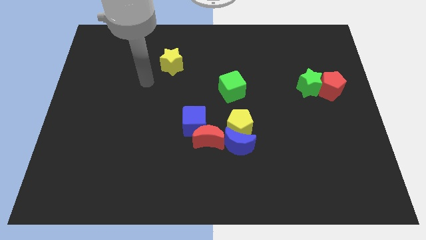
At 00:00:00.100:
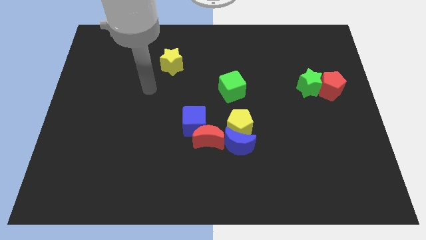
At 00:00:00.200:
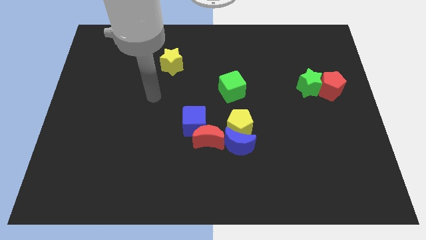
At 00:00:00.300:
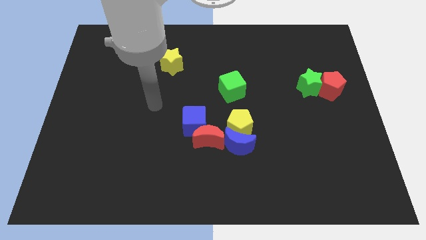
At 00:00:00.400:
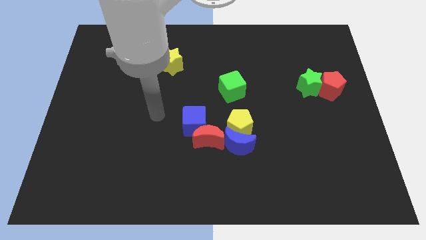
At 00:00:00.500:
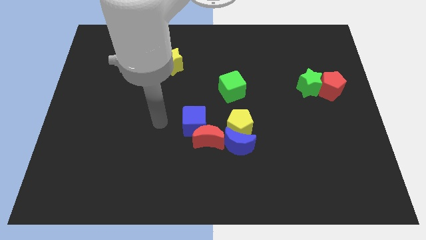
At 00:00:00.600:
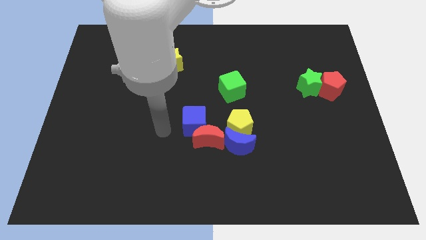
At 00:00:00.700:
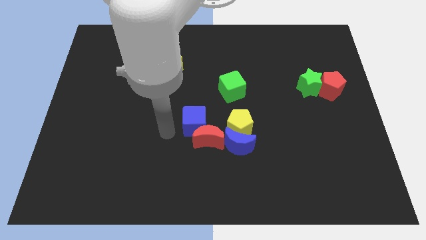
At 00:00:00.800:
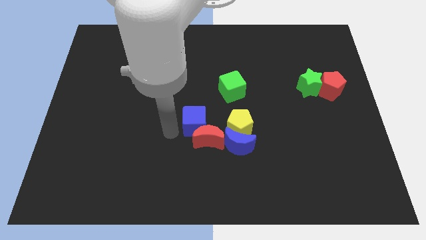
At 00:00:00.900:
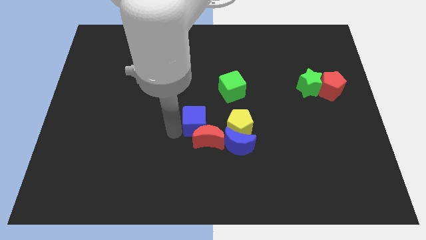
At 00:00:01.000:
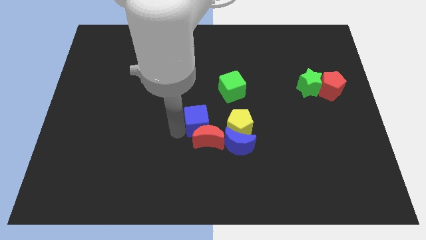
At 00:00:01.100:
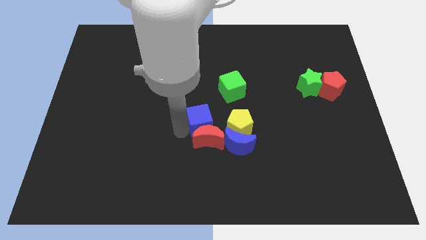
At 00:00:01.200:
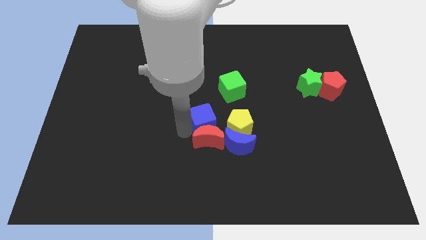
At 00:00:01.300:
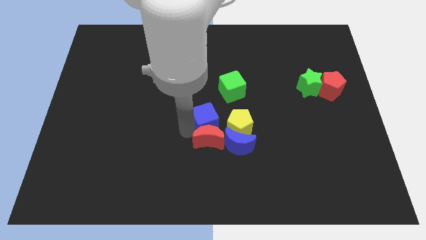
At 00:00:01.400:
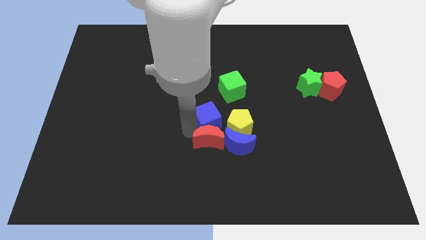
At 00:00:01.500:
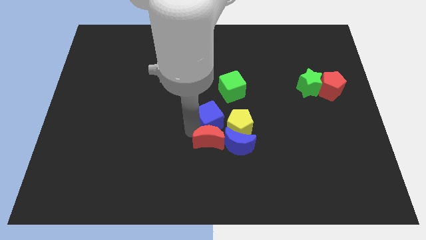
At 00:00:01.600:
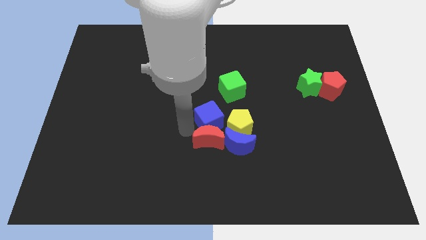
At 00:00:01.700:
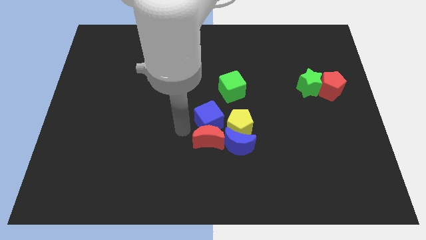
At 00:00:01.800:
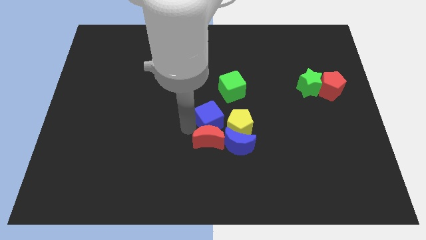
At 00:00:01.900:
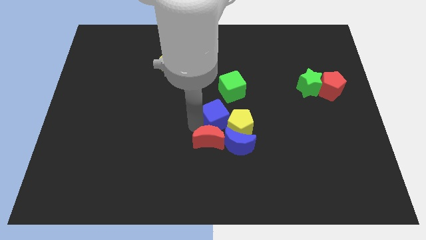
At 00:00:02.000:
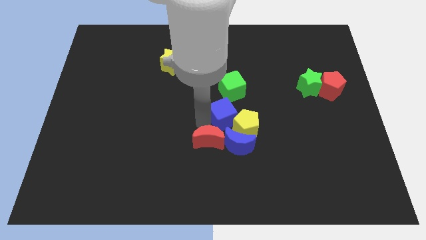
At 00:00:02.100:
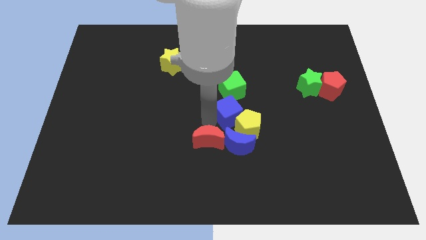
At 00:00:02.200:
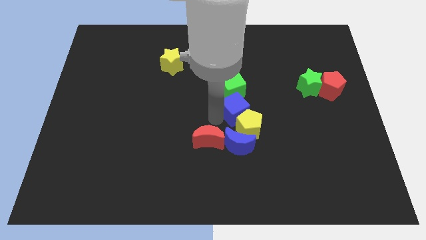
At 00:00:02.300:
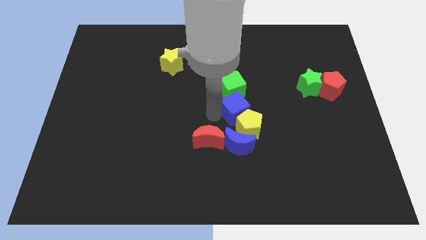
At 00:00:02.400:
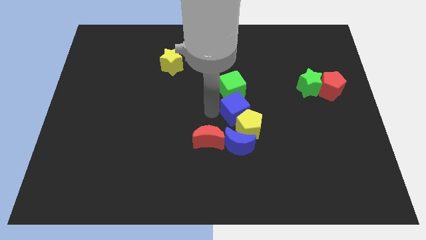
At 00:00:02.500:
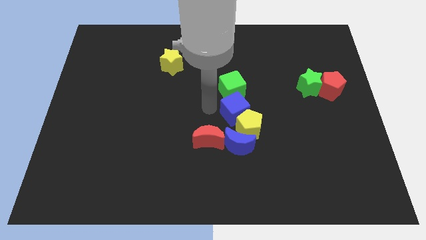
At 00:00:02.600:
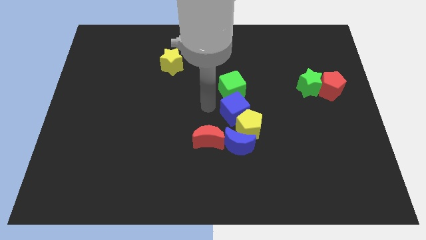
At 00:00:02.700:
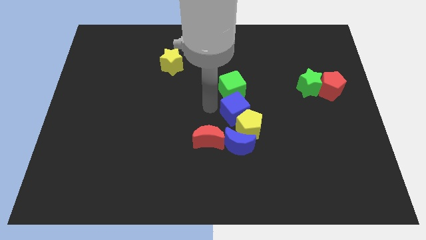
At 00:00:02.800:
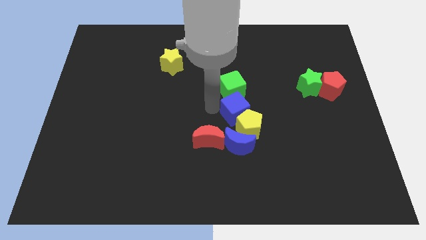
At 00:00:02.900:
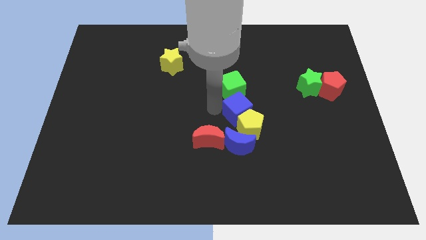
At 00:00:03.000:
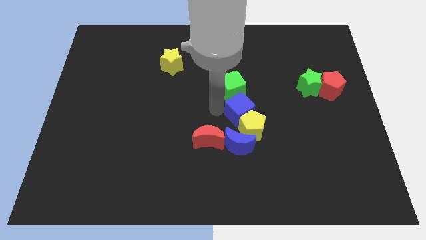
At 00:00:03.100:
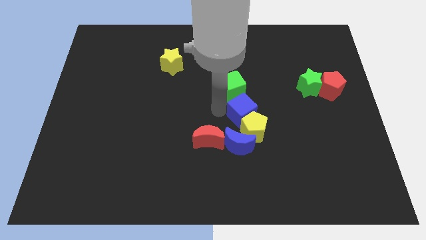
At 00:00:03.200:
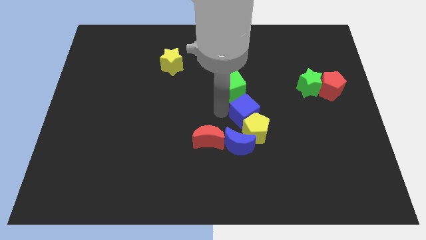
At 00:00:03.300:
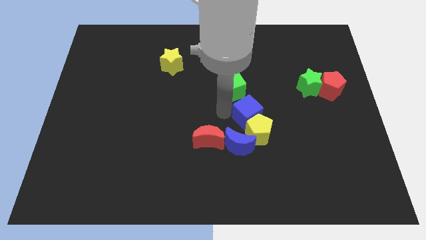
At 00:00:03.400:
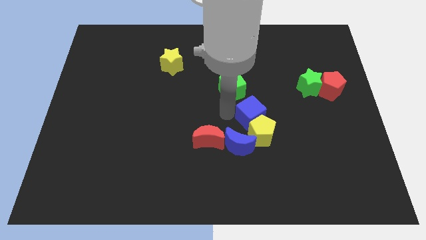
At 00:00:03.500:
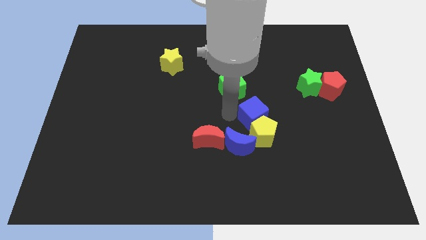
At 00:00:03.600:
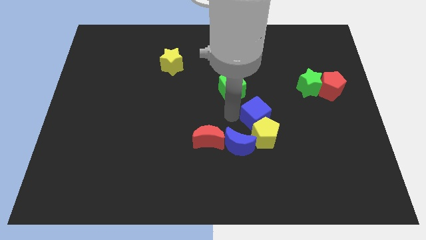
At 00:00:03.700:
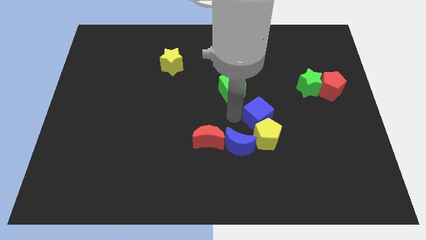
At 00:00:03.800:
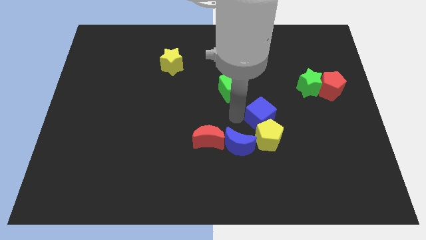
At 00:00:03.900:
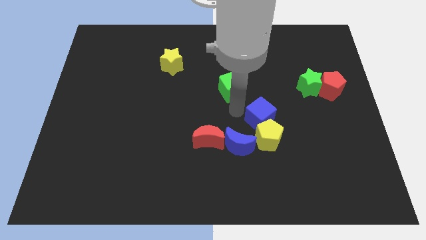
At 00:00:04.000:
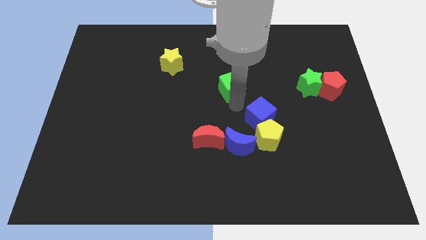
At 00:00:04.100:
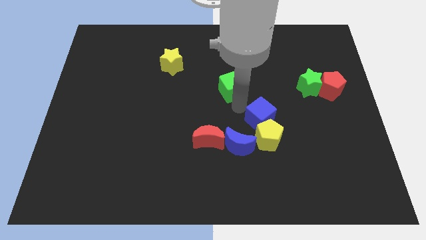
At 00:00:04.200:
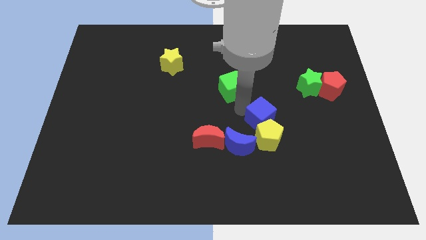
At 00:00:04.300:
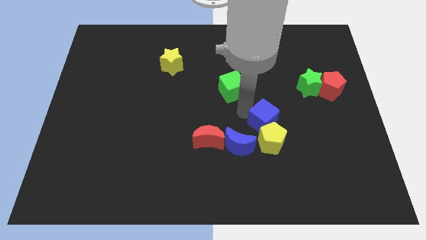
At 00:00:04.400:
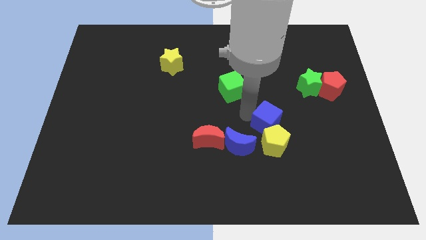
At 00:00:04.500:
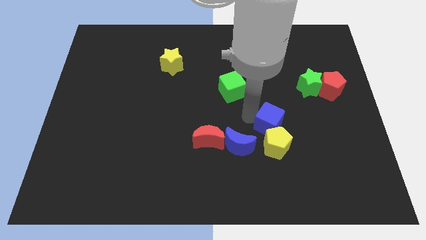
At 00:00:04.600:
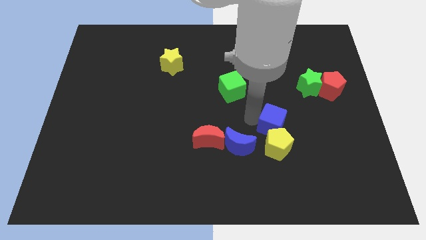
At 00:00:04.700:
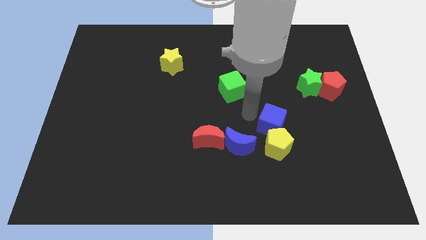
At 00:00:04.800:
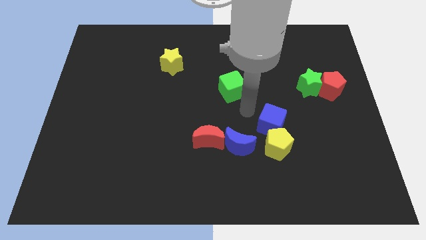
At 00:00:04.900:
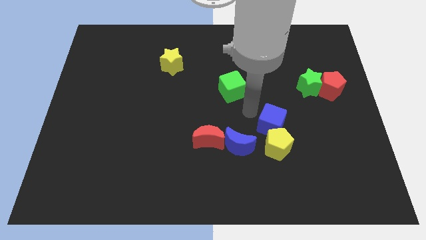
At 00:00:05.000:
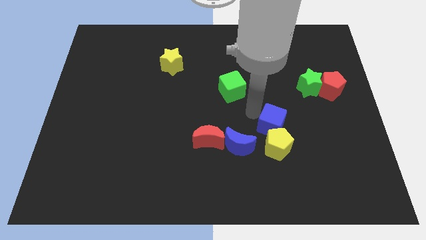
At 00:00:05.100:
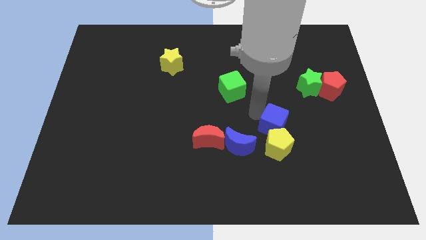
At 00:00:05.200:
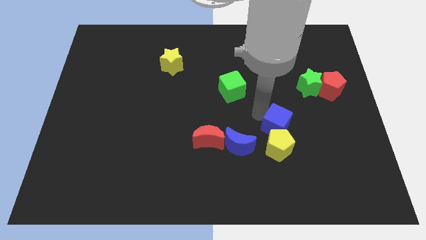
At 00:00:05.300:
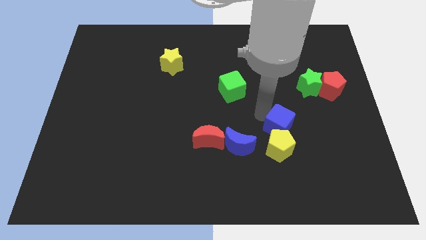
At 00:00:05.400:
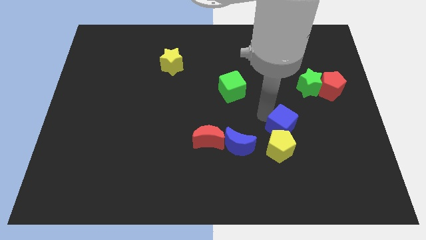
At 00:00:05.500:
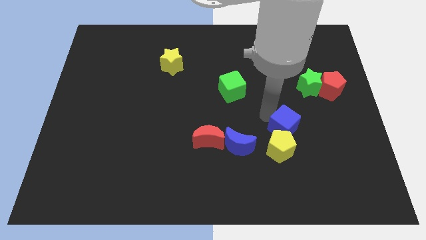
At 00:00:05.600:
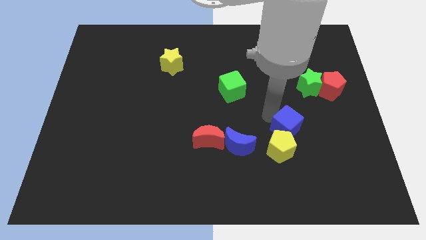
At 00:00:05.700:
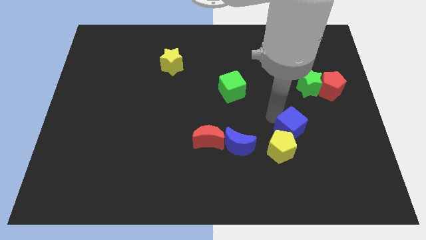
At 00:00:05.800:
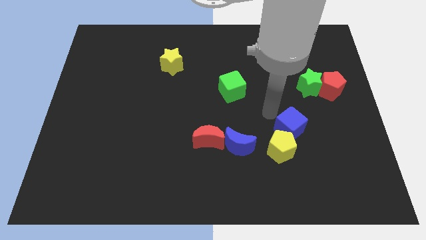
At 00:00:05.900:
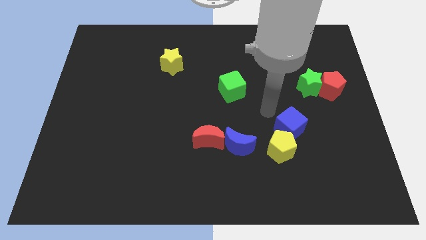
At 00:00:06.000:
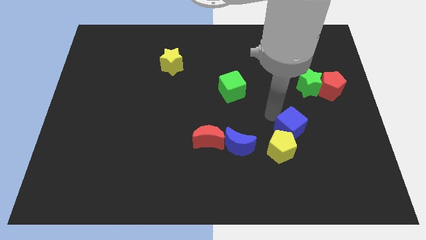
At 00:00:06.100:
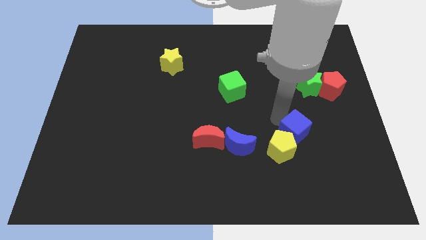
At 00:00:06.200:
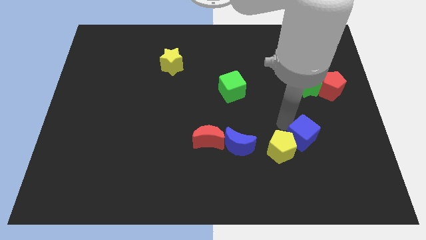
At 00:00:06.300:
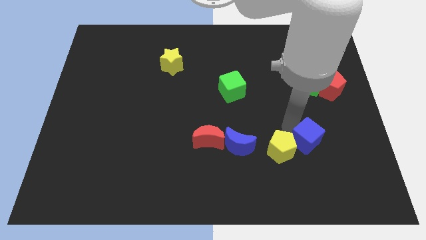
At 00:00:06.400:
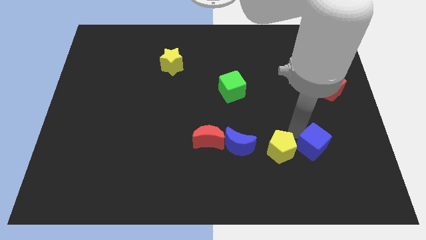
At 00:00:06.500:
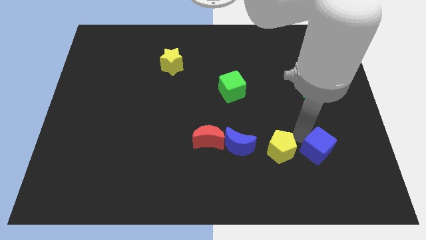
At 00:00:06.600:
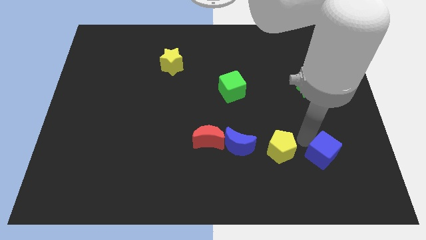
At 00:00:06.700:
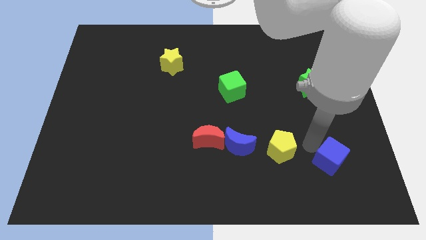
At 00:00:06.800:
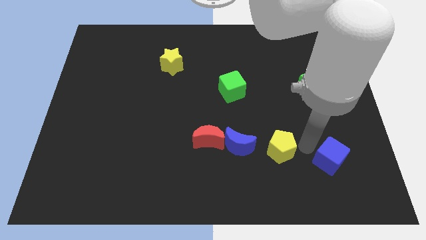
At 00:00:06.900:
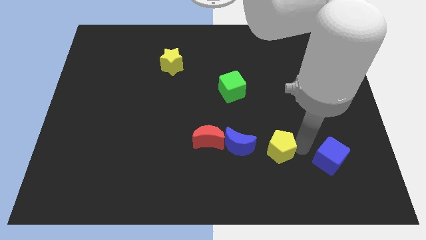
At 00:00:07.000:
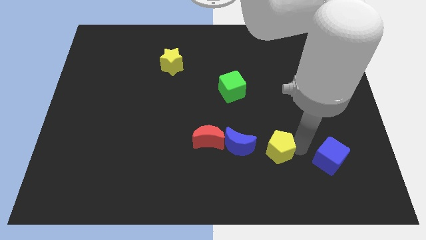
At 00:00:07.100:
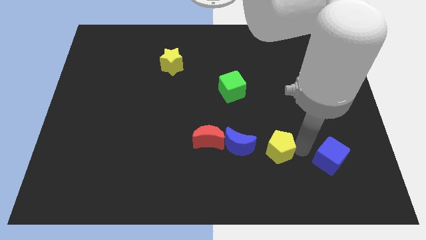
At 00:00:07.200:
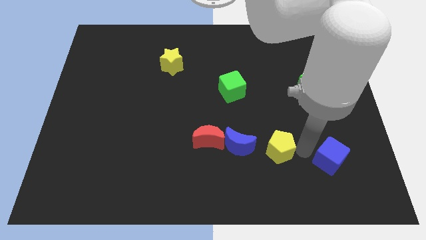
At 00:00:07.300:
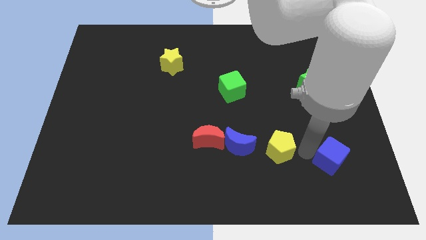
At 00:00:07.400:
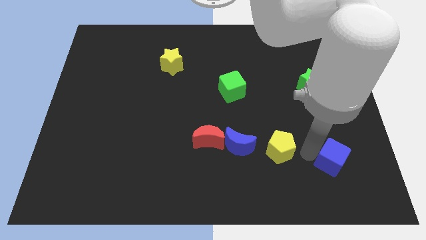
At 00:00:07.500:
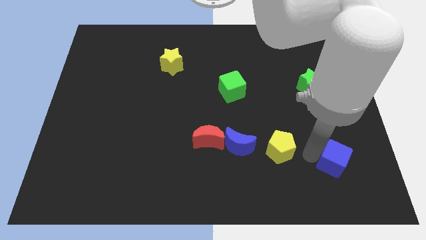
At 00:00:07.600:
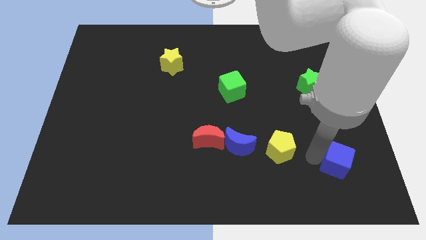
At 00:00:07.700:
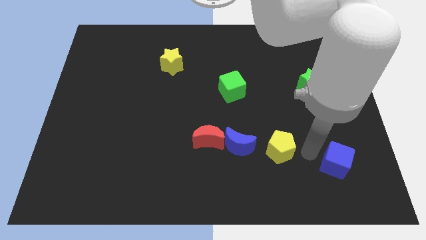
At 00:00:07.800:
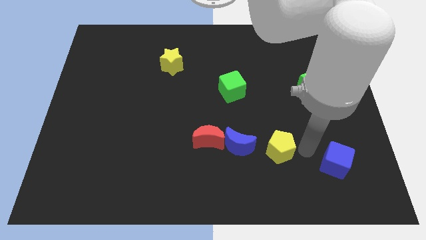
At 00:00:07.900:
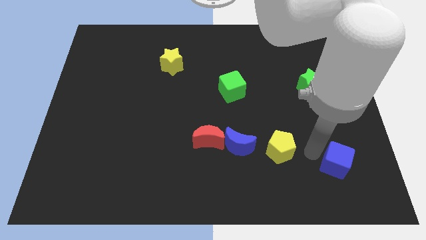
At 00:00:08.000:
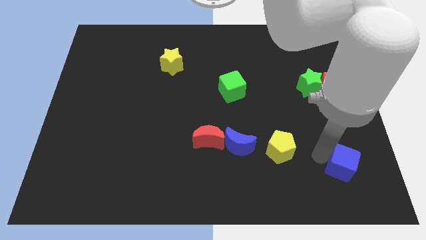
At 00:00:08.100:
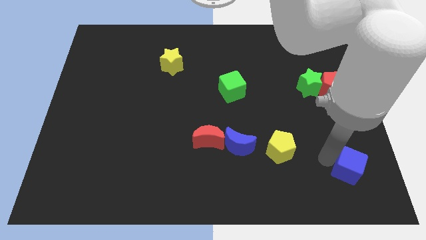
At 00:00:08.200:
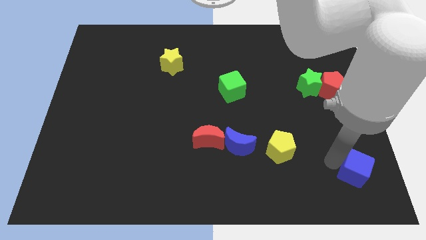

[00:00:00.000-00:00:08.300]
push the blue cube to the bottom right corner
